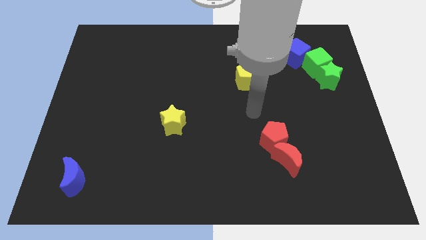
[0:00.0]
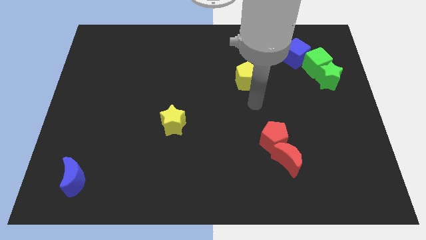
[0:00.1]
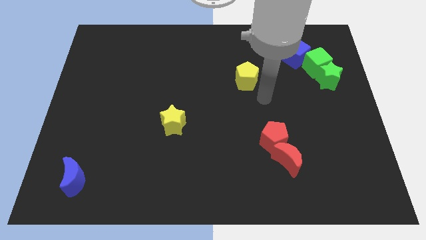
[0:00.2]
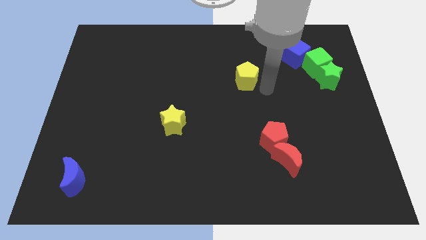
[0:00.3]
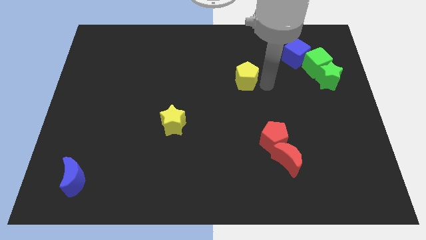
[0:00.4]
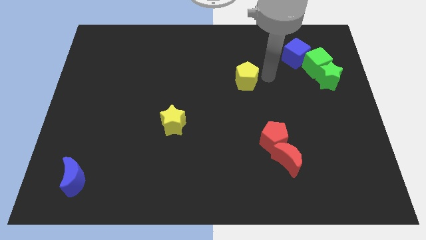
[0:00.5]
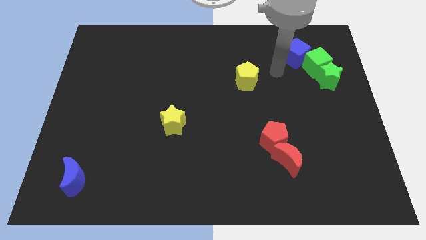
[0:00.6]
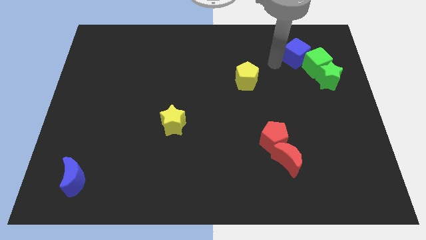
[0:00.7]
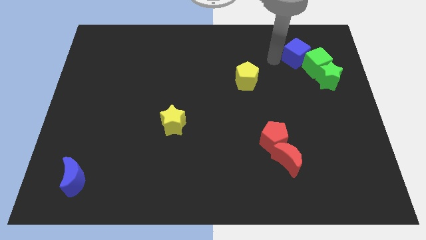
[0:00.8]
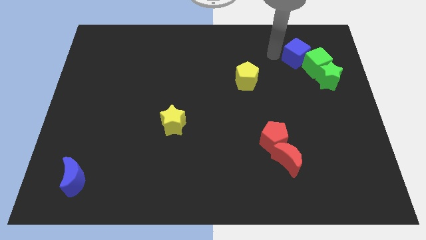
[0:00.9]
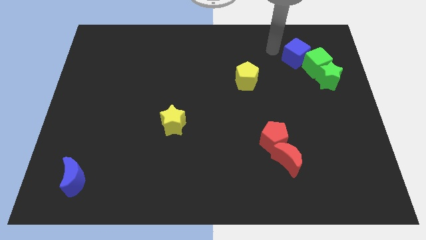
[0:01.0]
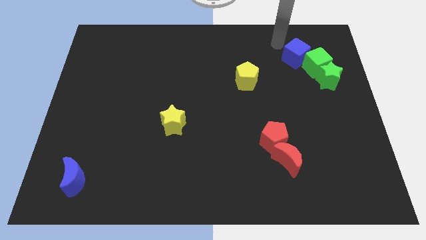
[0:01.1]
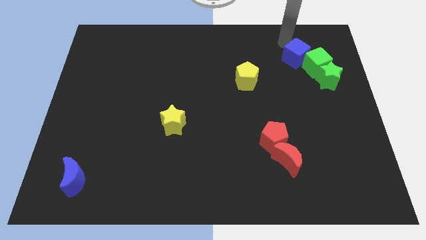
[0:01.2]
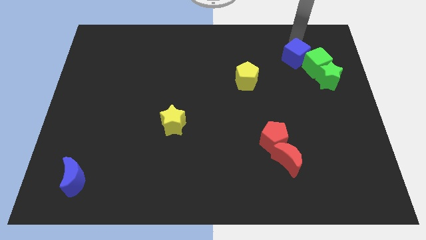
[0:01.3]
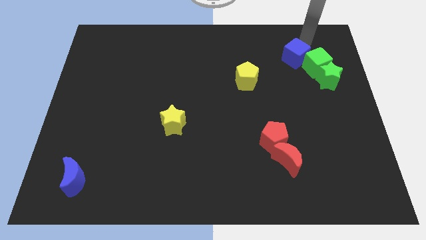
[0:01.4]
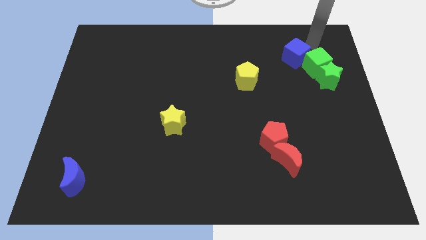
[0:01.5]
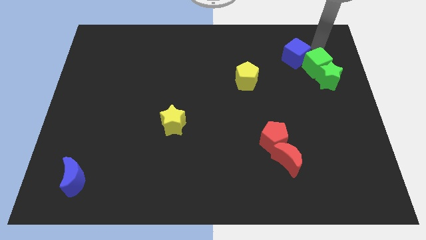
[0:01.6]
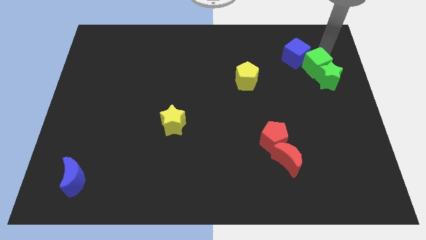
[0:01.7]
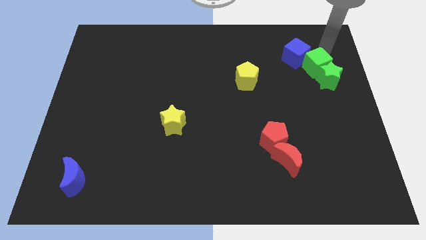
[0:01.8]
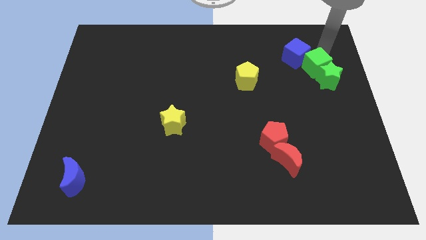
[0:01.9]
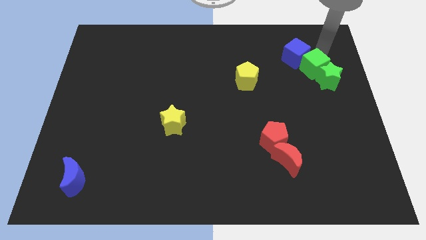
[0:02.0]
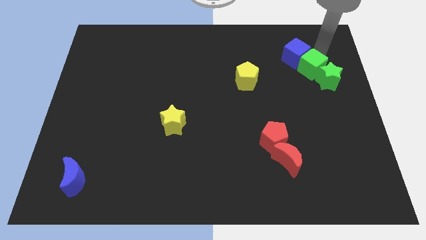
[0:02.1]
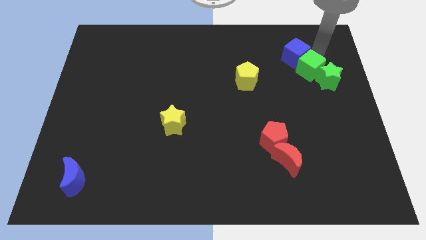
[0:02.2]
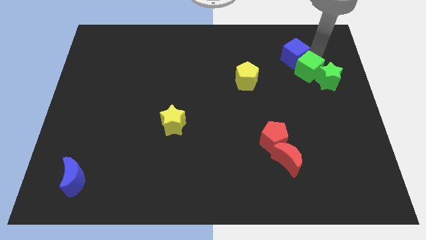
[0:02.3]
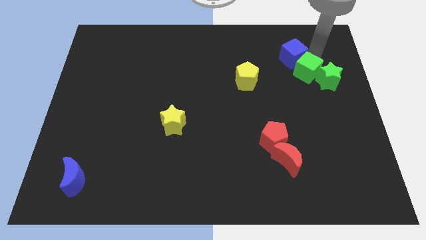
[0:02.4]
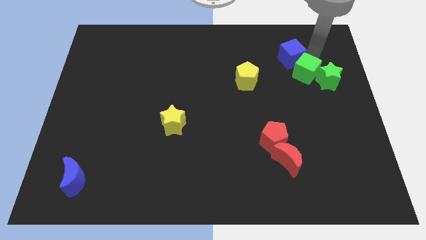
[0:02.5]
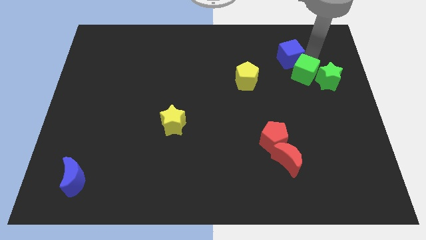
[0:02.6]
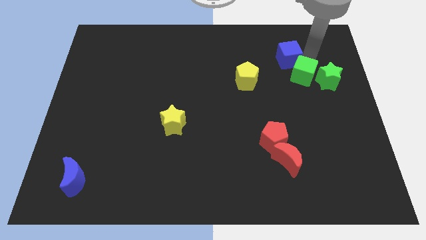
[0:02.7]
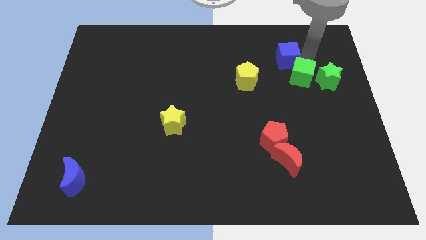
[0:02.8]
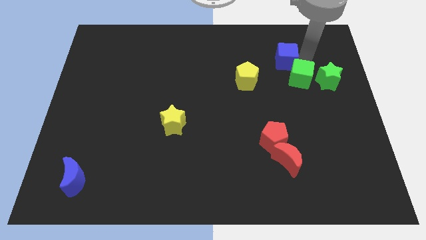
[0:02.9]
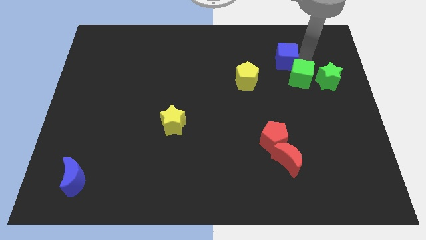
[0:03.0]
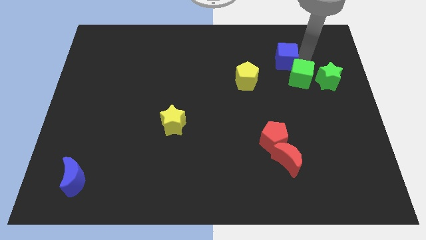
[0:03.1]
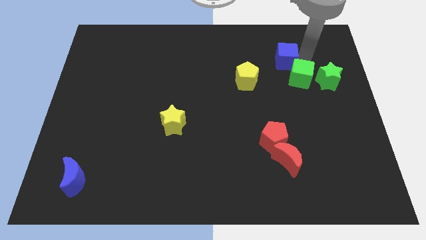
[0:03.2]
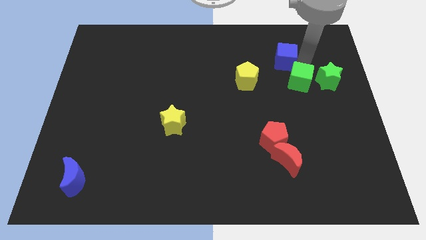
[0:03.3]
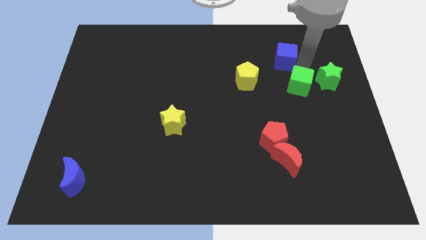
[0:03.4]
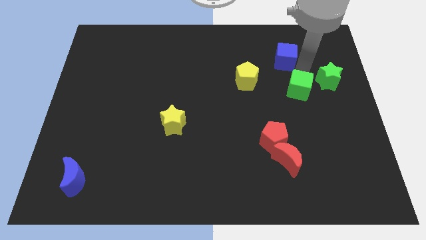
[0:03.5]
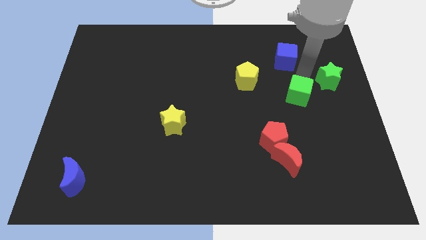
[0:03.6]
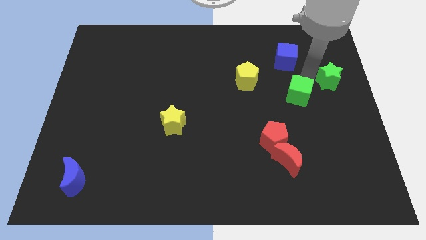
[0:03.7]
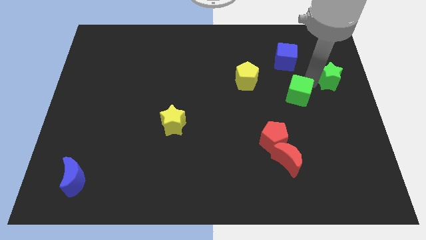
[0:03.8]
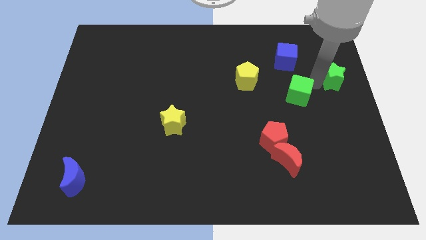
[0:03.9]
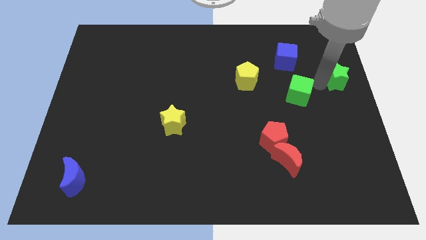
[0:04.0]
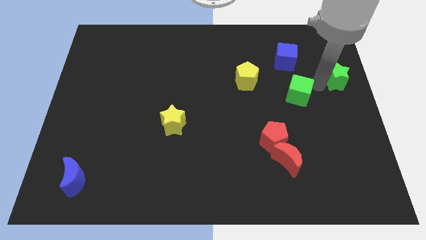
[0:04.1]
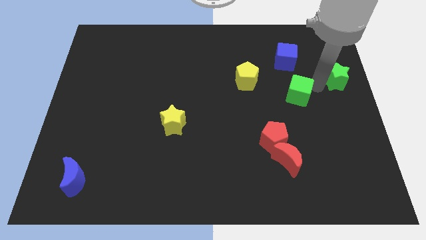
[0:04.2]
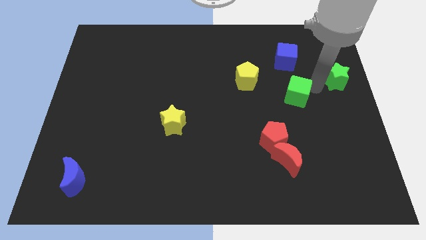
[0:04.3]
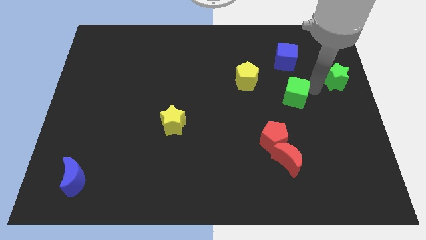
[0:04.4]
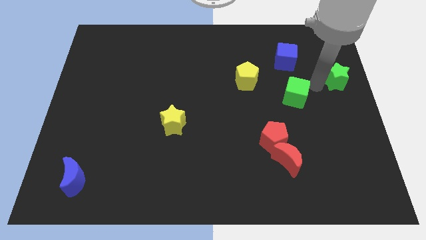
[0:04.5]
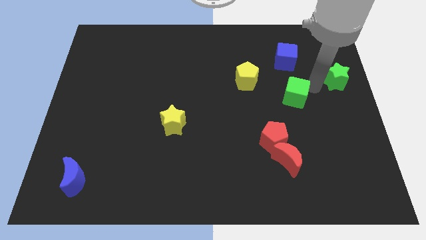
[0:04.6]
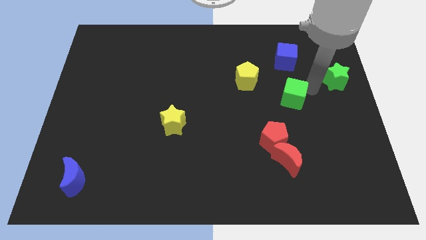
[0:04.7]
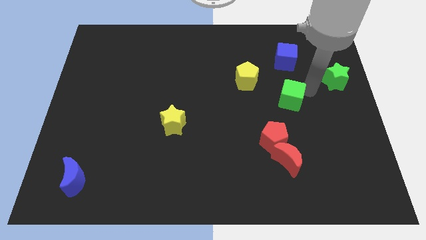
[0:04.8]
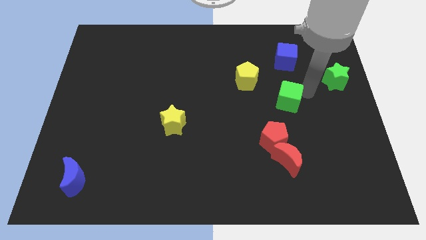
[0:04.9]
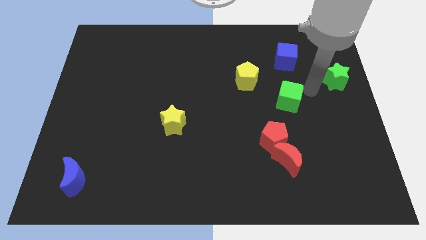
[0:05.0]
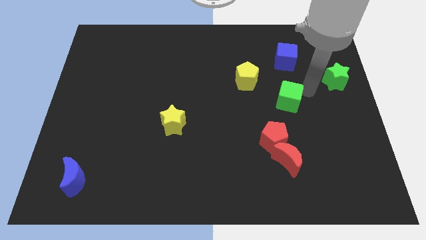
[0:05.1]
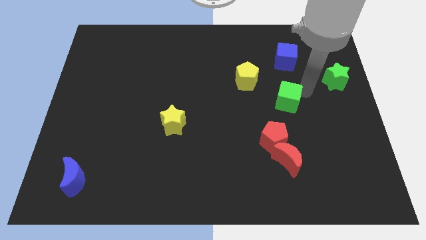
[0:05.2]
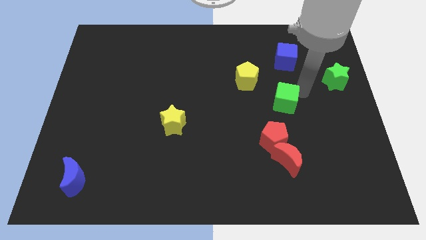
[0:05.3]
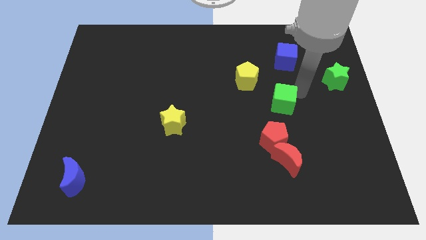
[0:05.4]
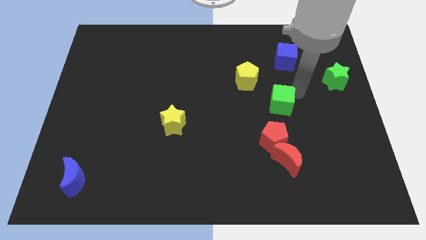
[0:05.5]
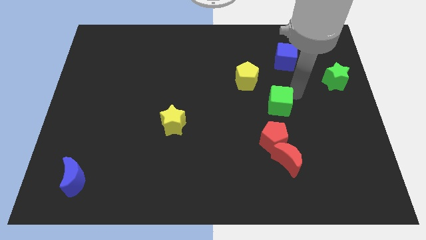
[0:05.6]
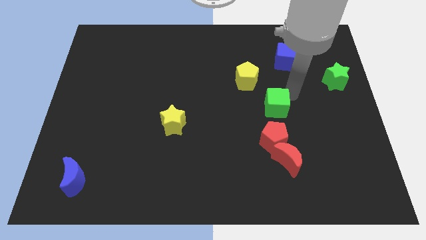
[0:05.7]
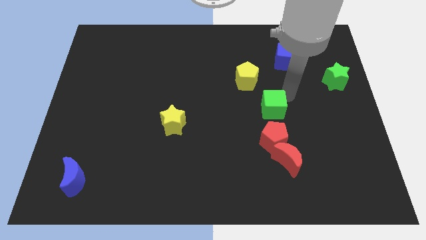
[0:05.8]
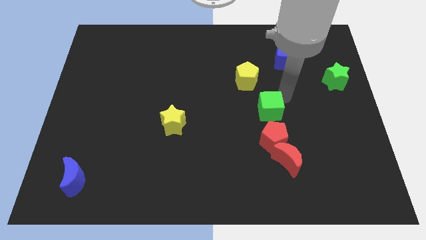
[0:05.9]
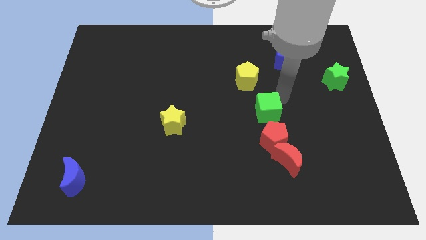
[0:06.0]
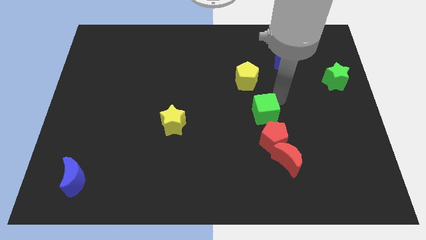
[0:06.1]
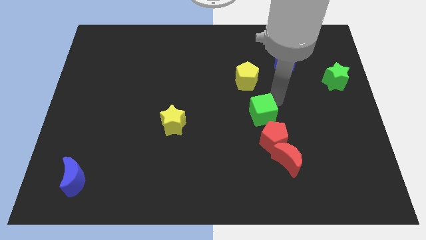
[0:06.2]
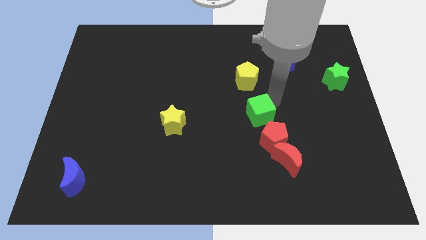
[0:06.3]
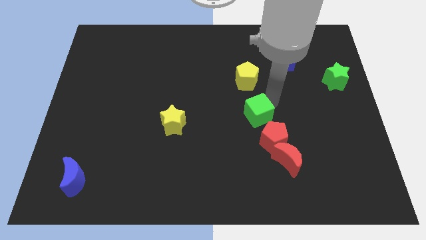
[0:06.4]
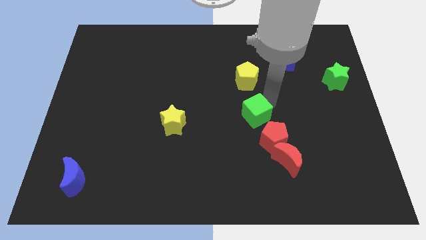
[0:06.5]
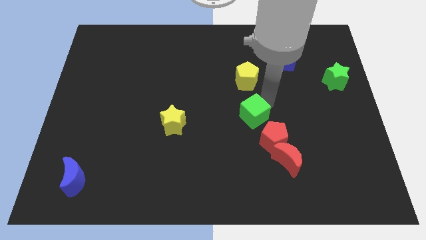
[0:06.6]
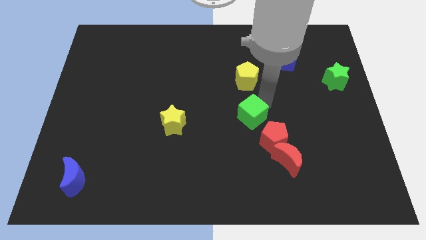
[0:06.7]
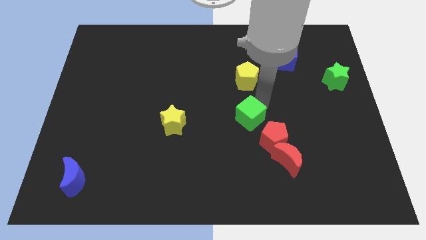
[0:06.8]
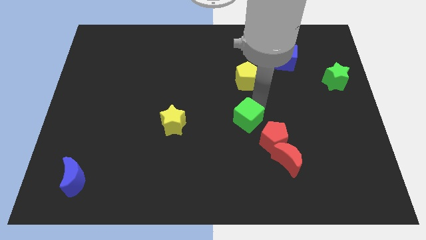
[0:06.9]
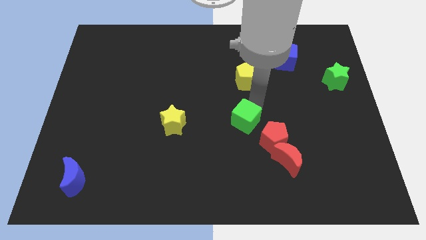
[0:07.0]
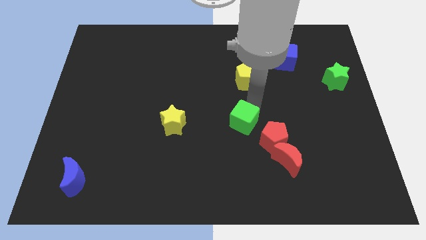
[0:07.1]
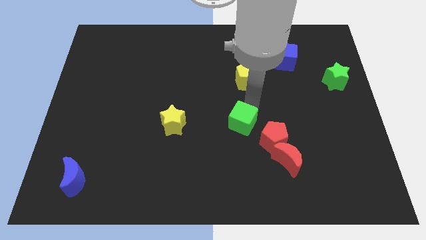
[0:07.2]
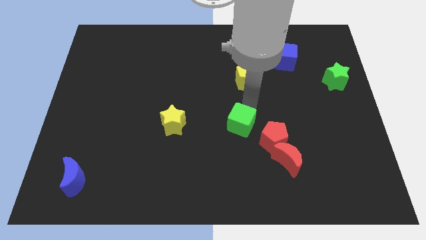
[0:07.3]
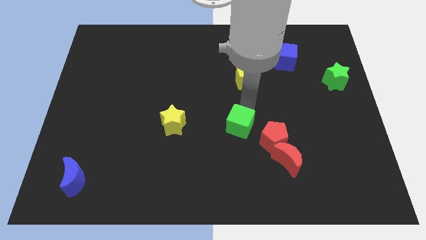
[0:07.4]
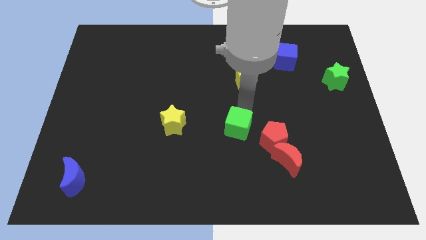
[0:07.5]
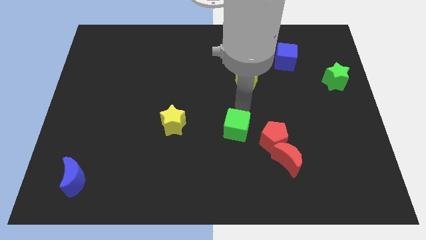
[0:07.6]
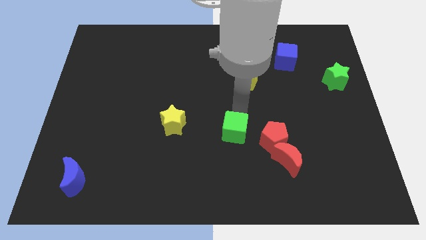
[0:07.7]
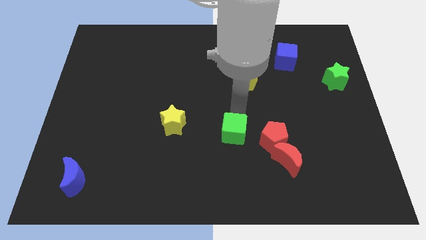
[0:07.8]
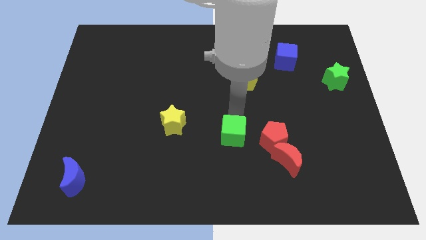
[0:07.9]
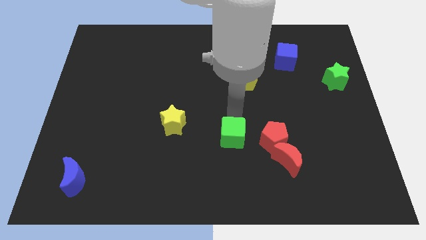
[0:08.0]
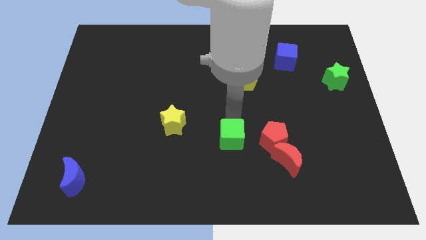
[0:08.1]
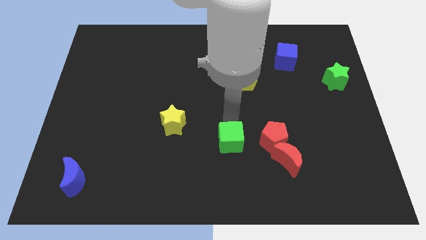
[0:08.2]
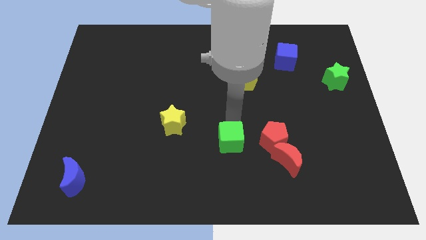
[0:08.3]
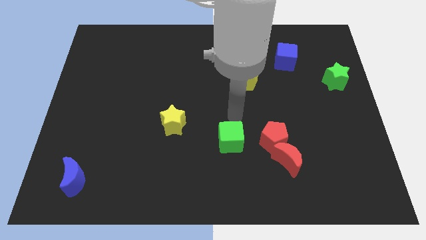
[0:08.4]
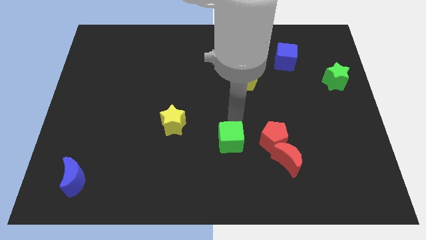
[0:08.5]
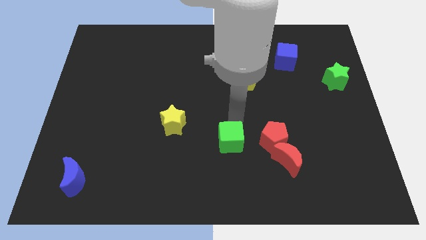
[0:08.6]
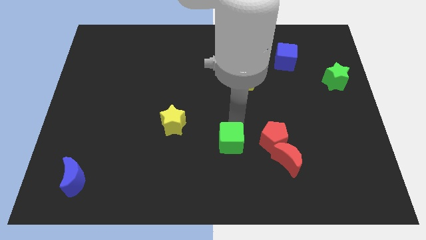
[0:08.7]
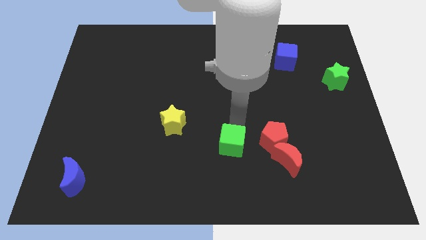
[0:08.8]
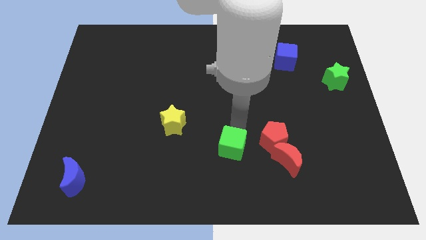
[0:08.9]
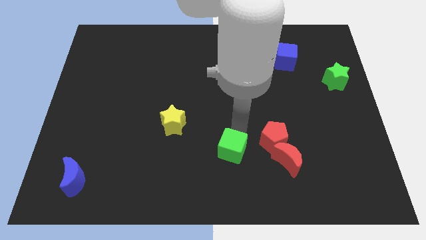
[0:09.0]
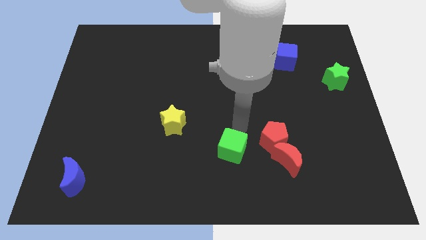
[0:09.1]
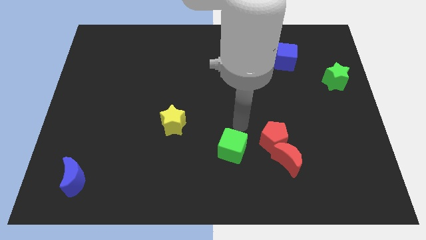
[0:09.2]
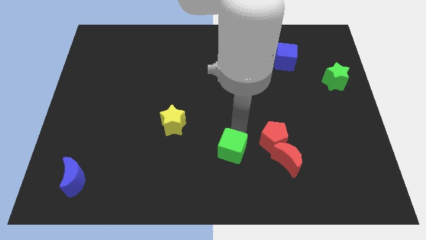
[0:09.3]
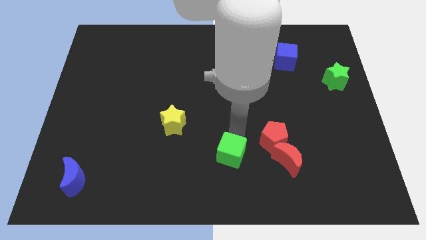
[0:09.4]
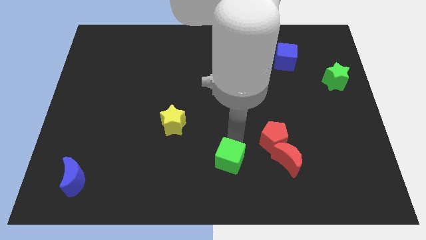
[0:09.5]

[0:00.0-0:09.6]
slide the green cube to the bottom
